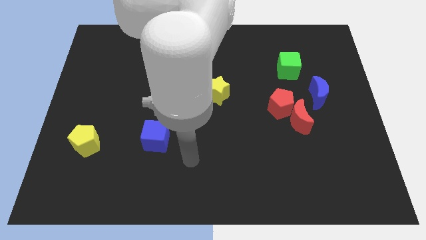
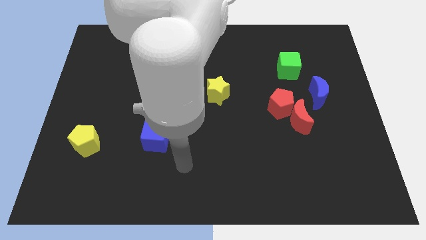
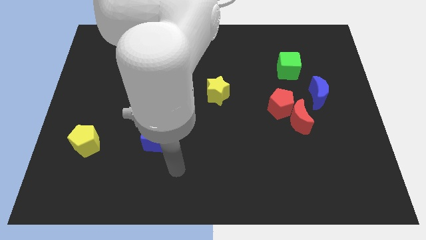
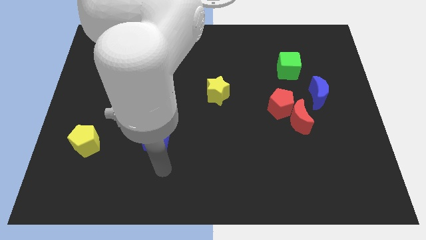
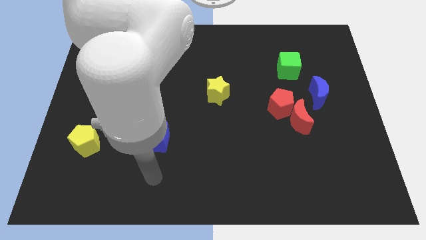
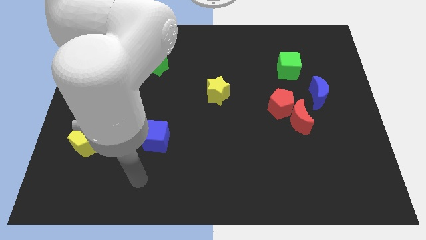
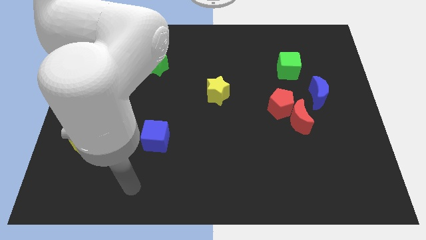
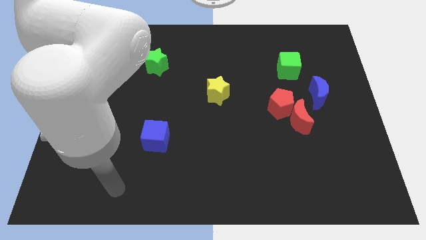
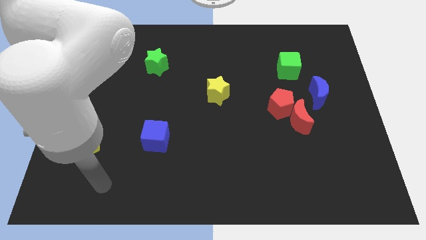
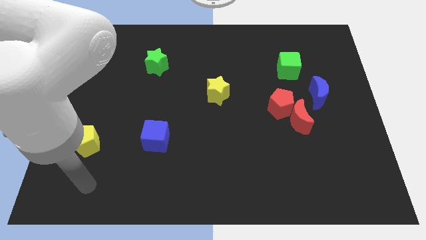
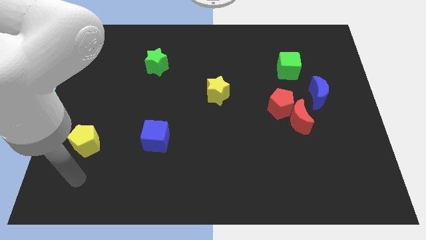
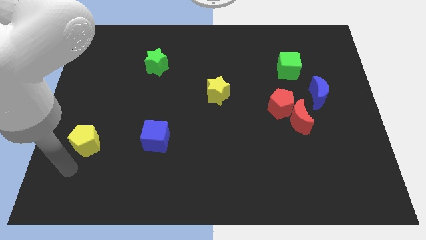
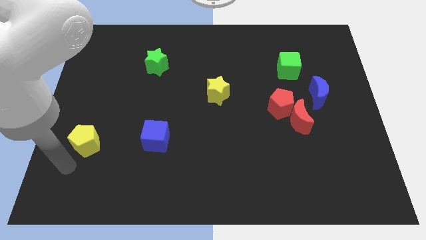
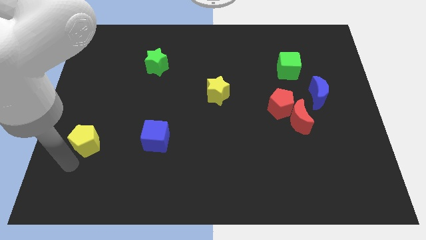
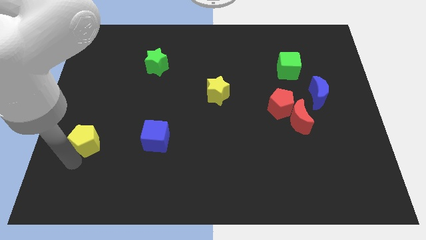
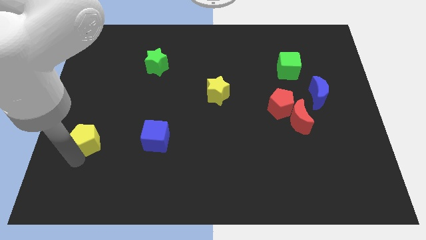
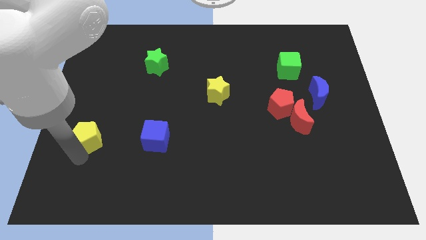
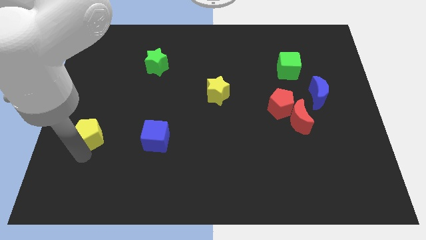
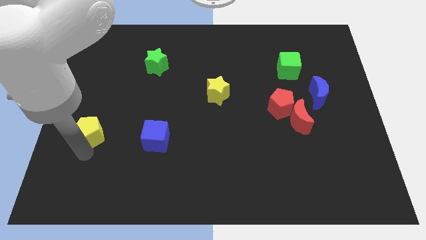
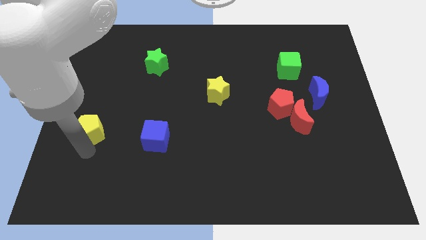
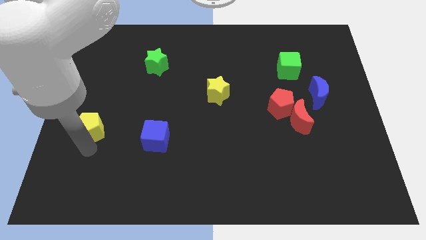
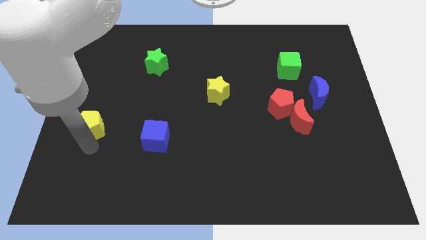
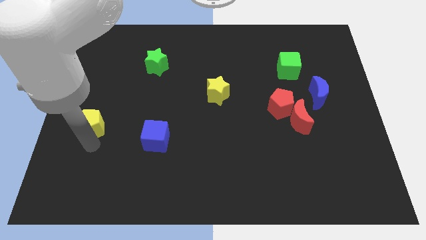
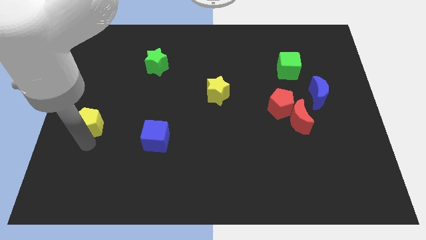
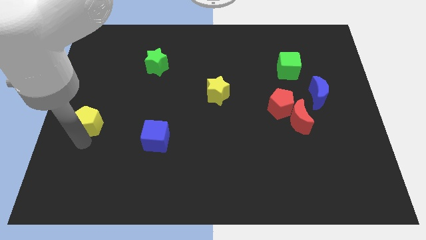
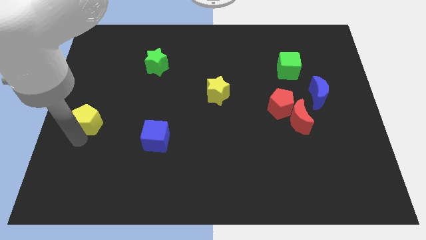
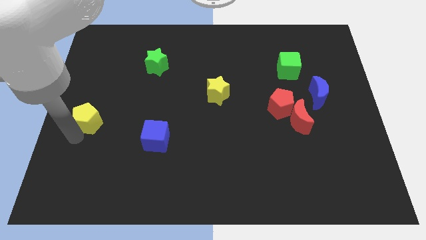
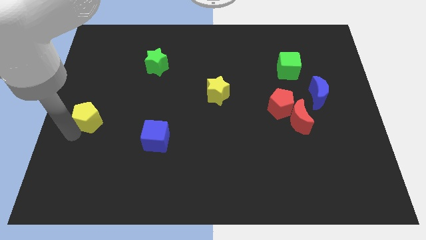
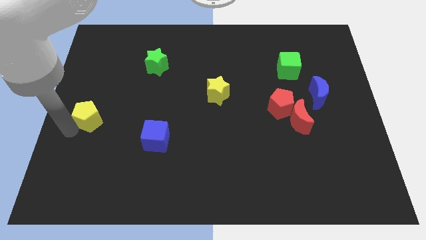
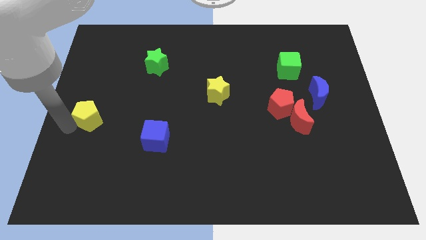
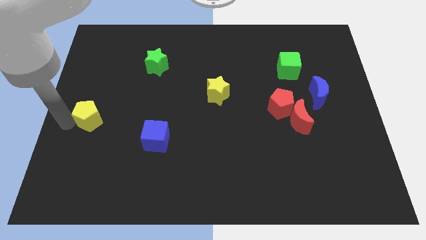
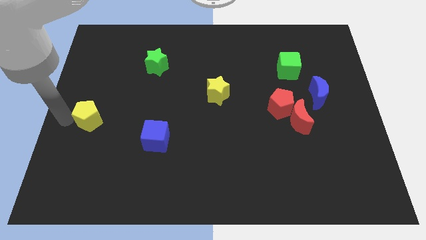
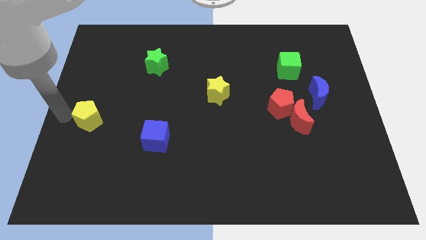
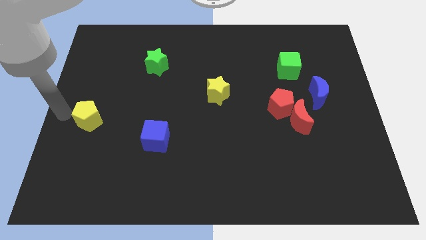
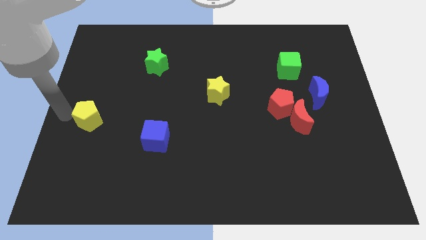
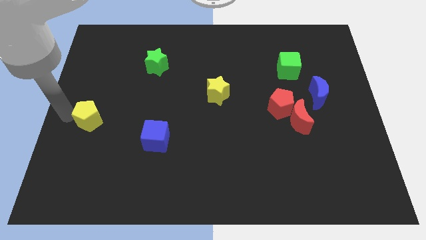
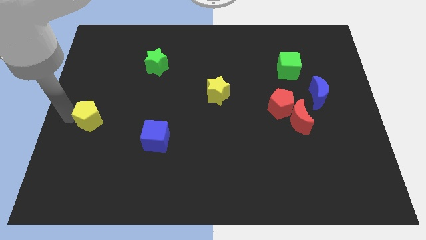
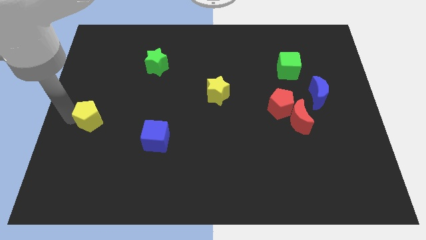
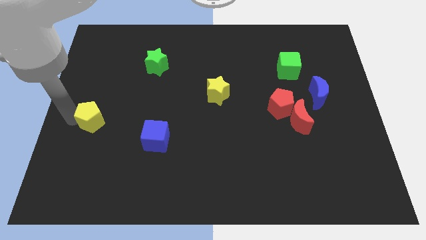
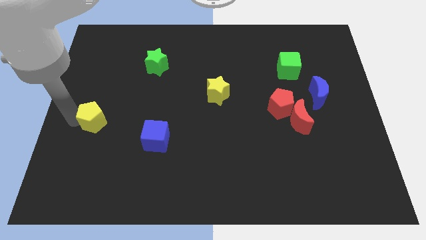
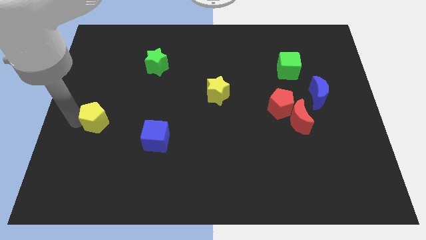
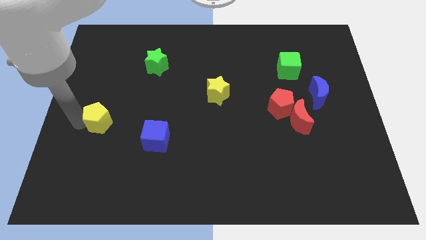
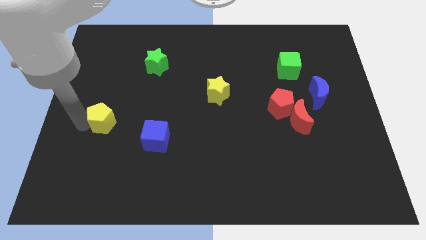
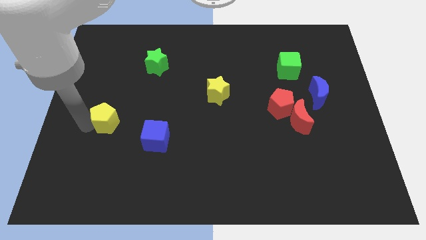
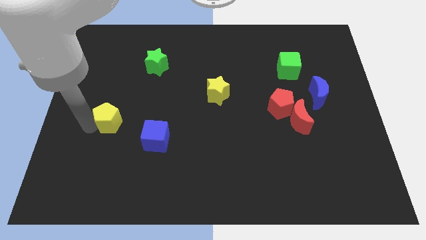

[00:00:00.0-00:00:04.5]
slightly push the yellow pentagon upwards and right diagonally

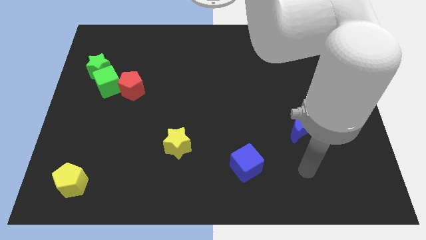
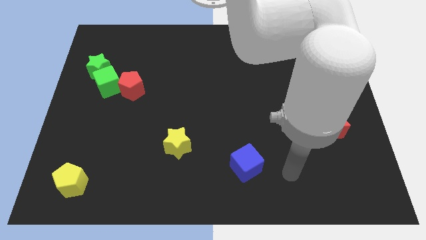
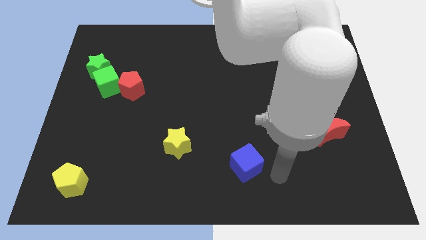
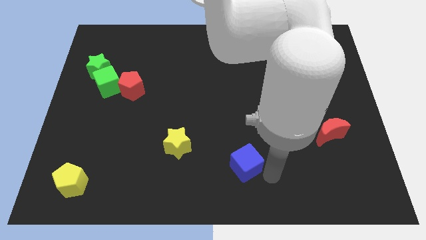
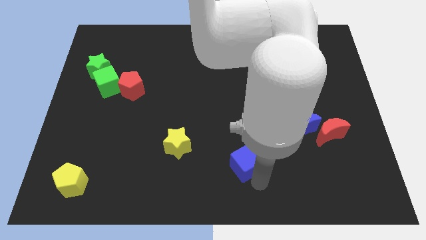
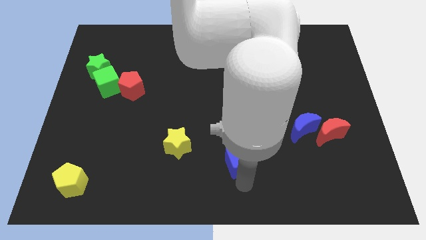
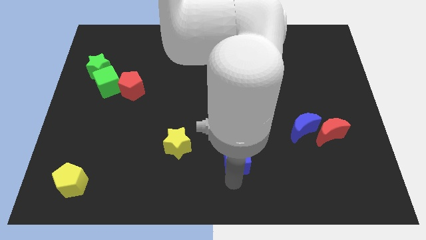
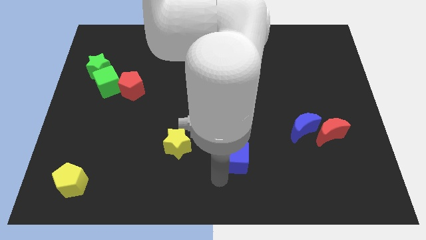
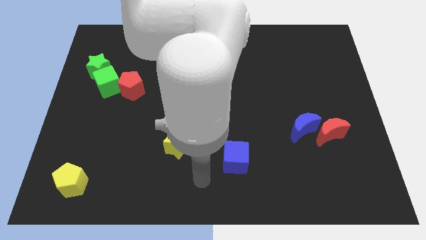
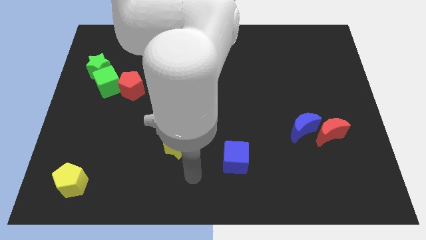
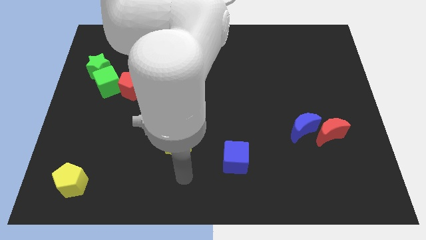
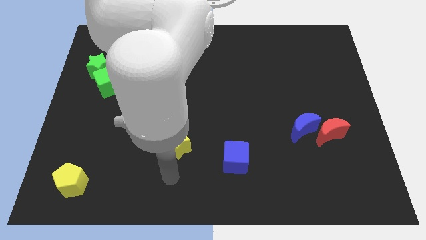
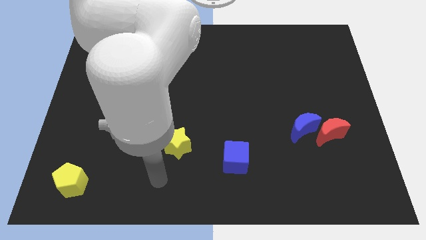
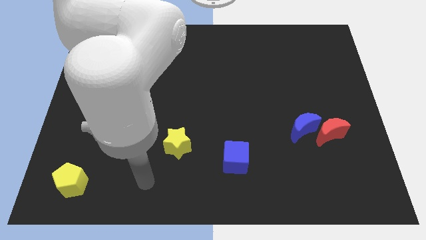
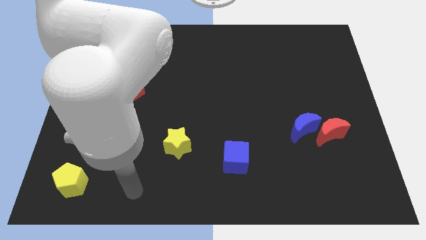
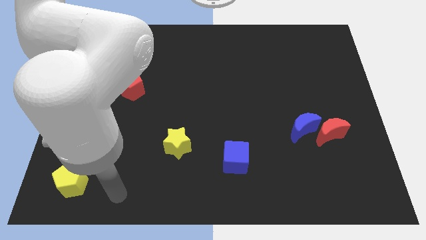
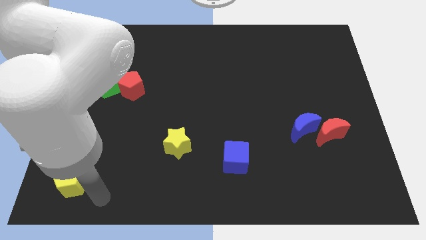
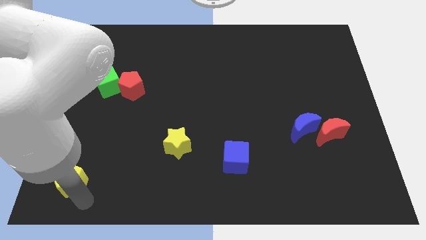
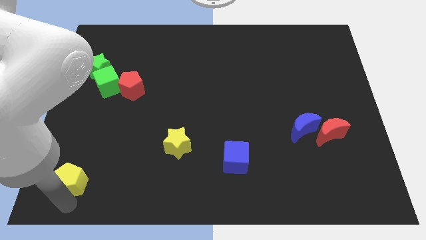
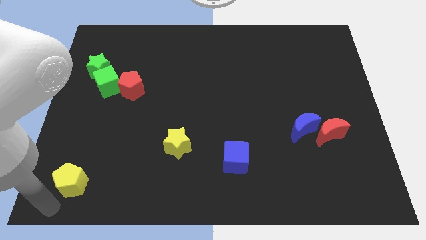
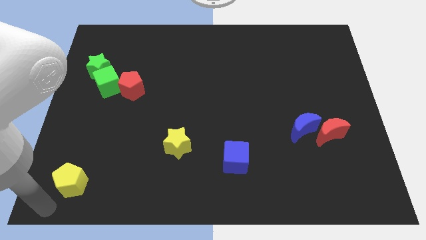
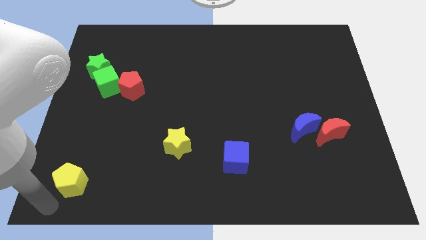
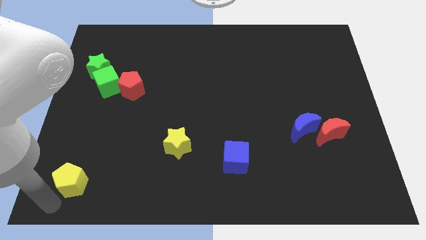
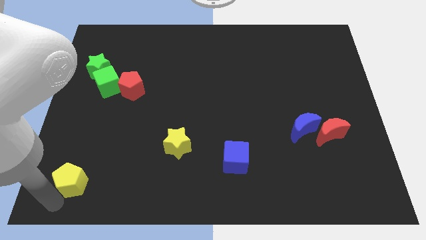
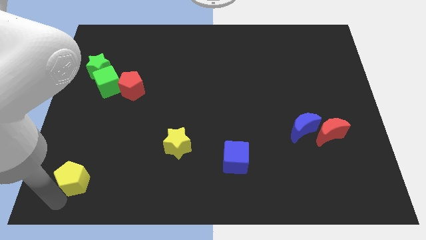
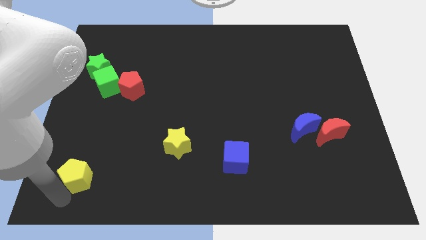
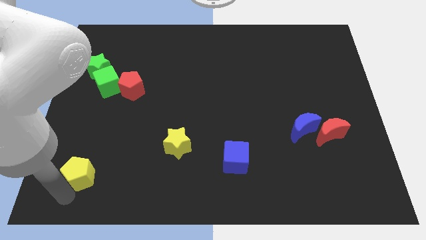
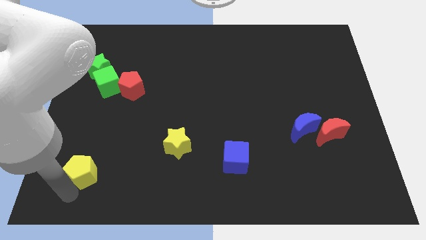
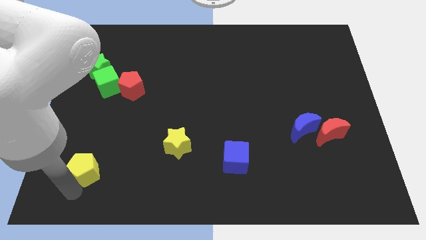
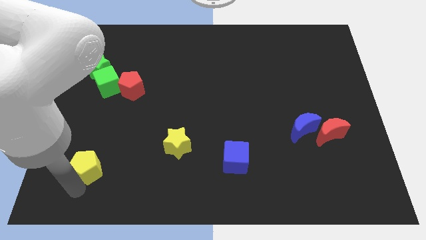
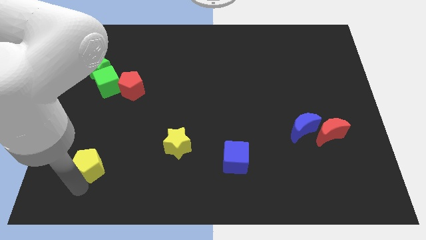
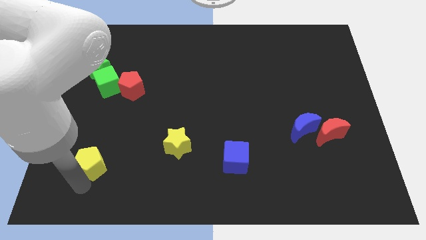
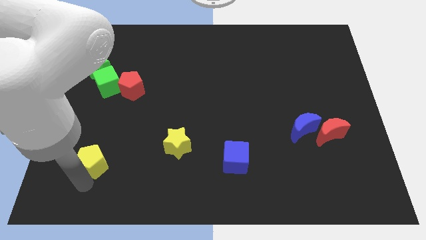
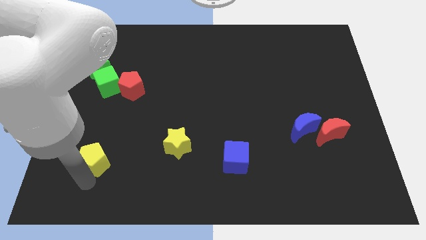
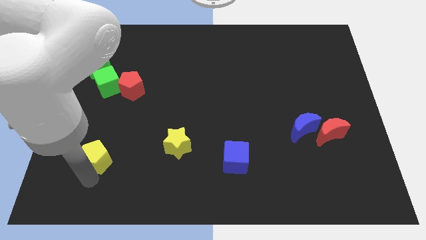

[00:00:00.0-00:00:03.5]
push the yellow pentagon slightly upwards and then right

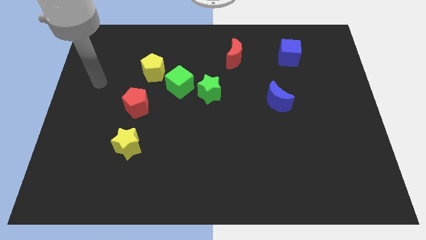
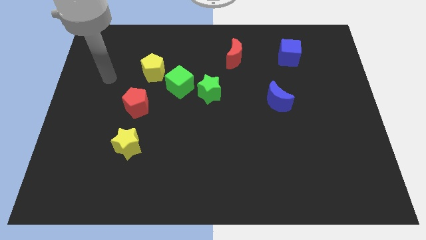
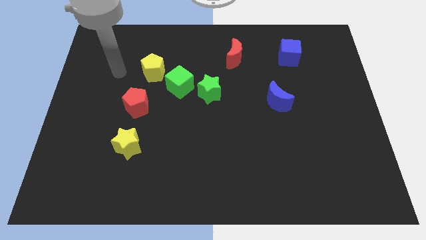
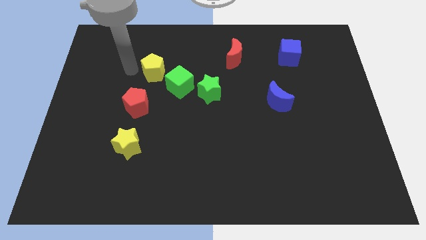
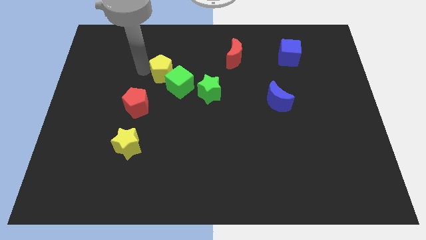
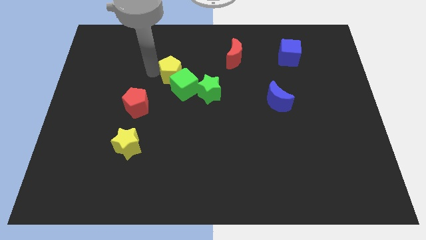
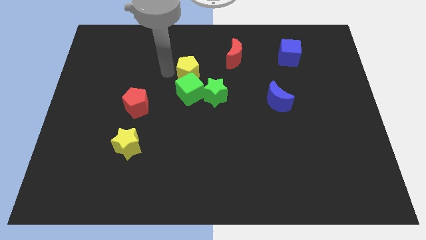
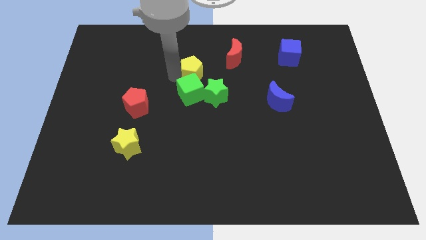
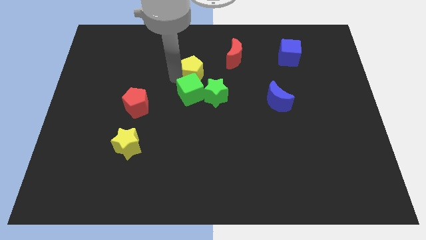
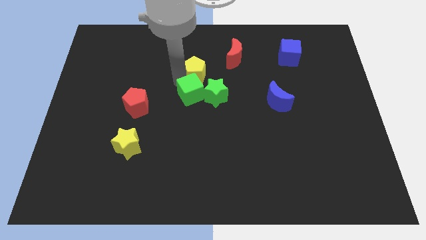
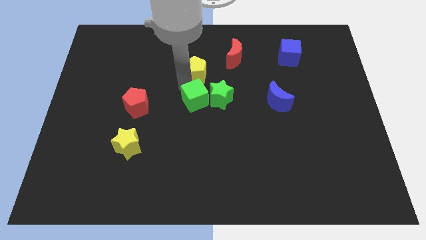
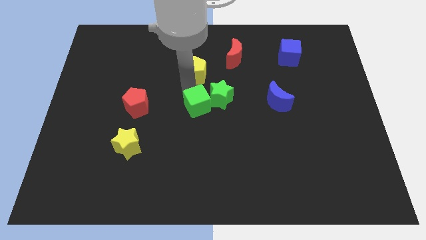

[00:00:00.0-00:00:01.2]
slide the green cube downwards and then to the right a little bit
